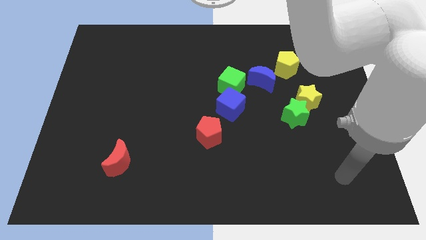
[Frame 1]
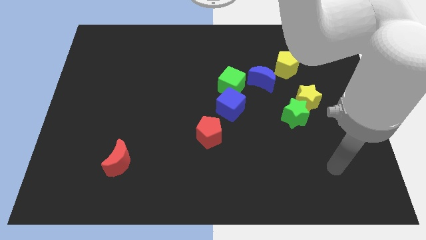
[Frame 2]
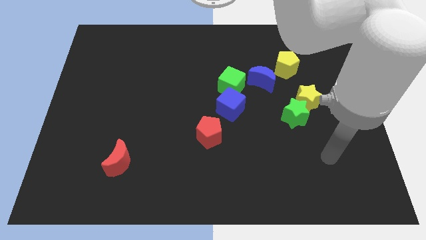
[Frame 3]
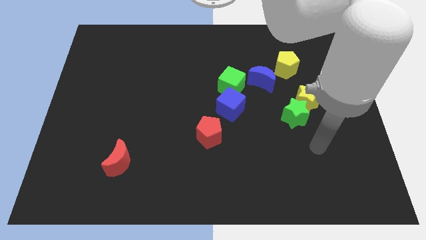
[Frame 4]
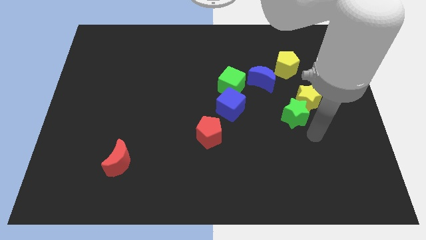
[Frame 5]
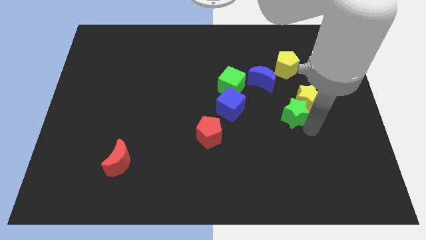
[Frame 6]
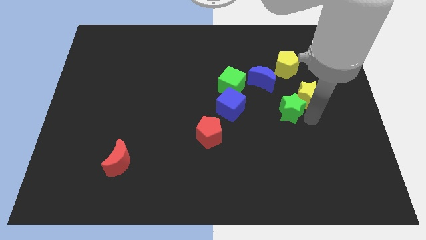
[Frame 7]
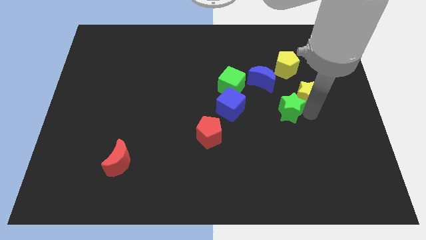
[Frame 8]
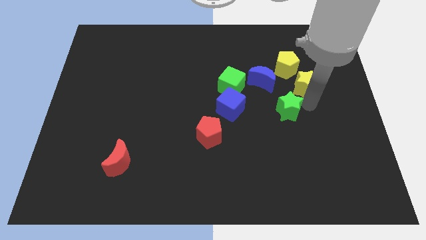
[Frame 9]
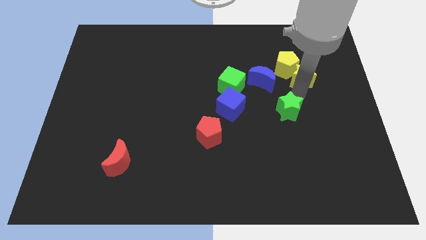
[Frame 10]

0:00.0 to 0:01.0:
pull the green star apart from the yellow star

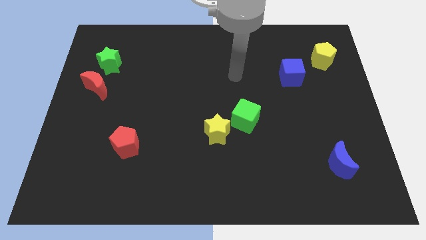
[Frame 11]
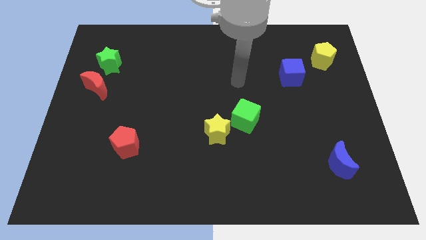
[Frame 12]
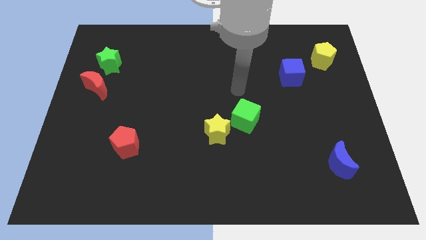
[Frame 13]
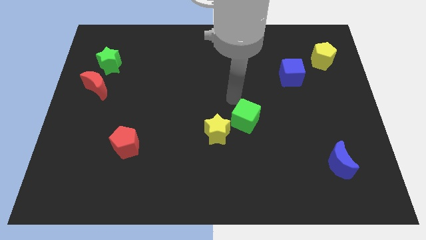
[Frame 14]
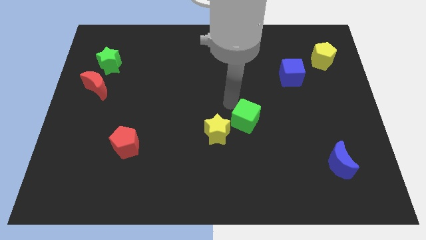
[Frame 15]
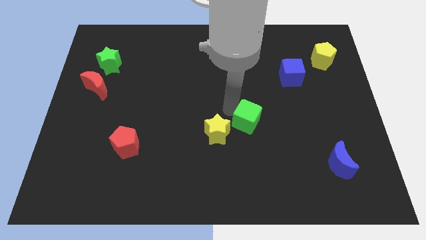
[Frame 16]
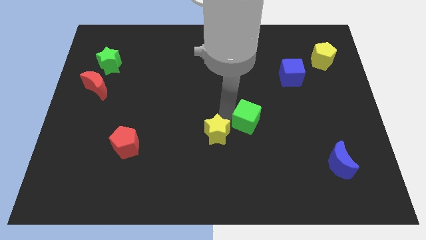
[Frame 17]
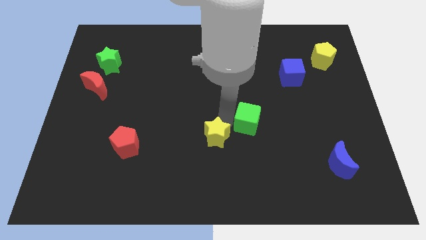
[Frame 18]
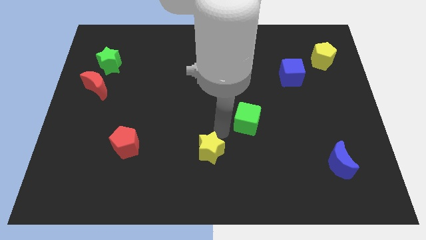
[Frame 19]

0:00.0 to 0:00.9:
separate the green cube from the yellow star

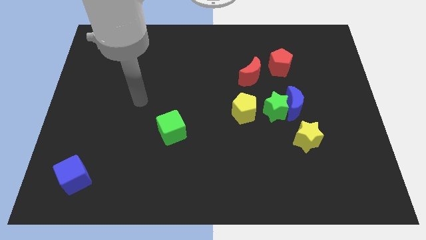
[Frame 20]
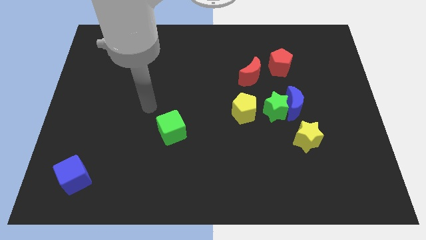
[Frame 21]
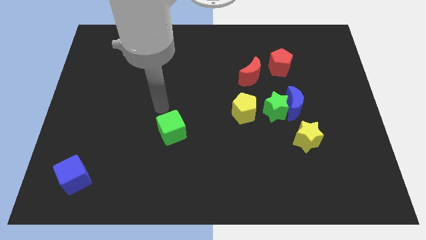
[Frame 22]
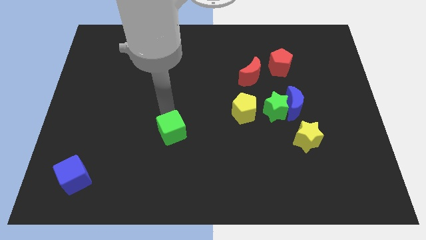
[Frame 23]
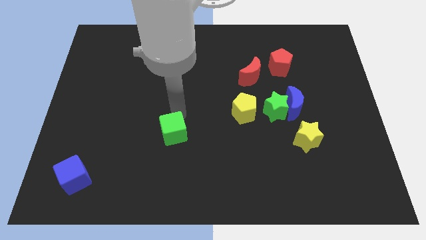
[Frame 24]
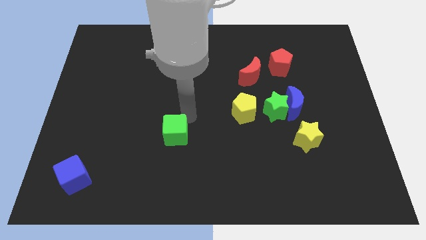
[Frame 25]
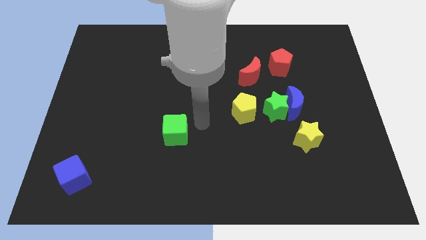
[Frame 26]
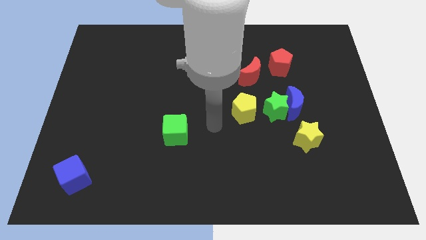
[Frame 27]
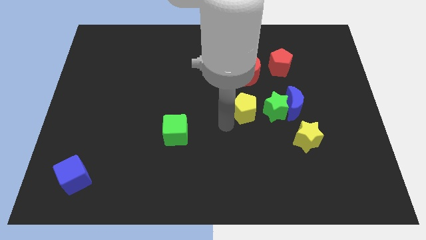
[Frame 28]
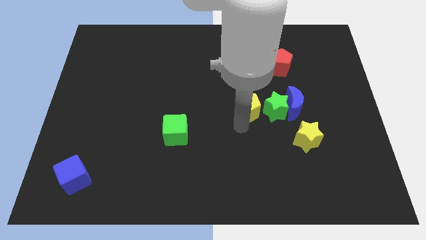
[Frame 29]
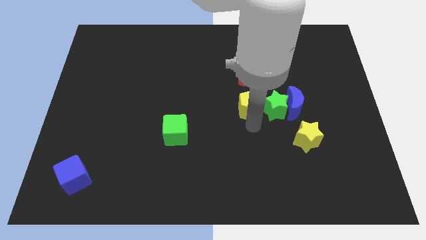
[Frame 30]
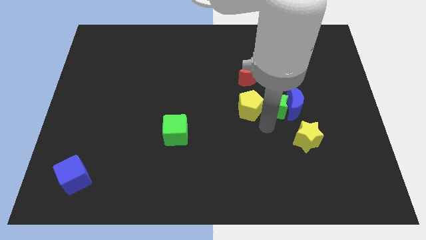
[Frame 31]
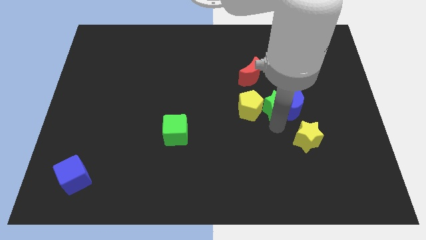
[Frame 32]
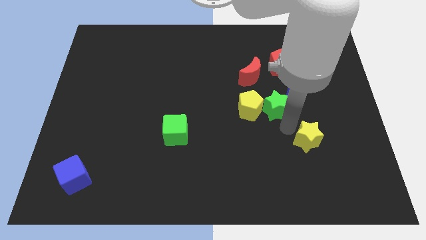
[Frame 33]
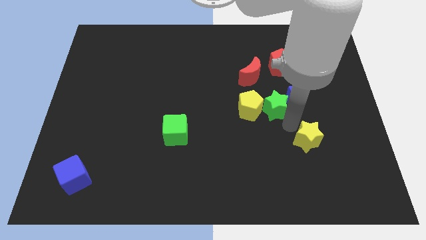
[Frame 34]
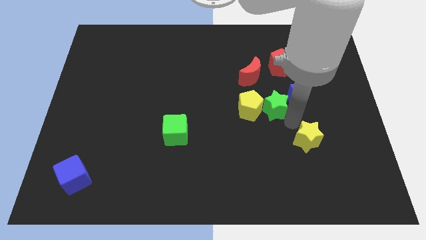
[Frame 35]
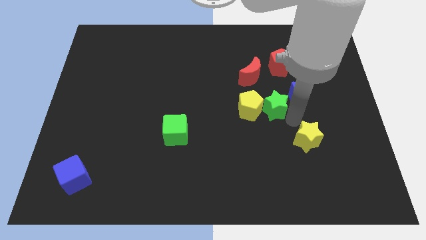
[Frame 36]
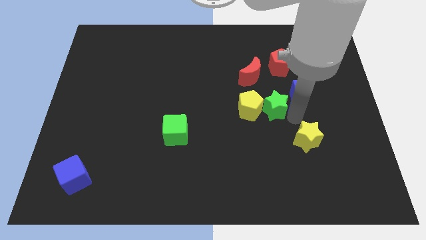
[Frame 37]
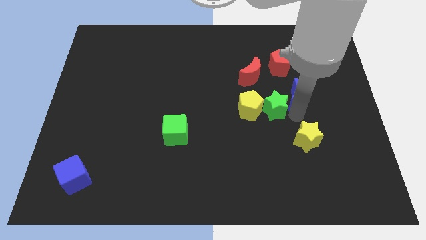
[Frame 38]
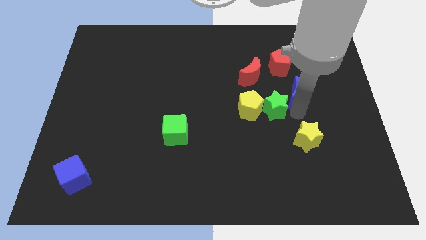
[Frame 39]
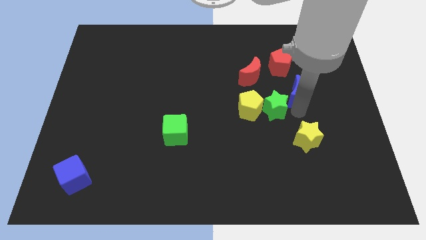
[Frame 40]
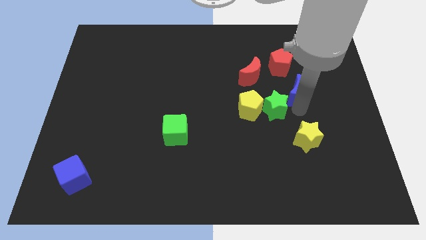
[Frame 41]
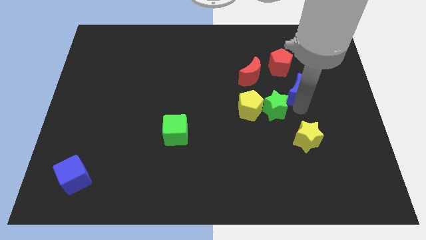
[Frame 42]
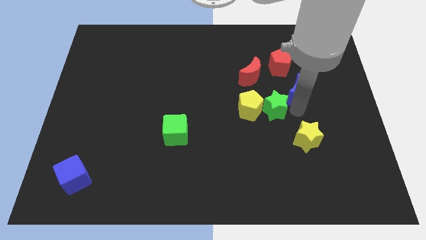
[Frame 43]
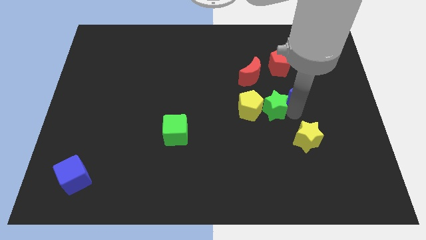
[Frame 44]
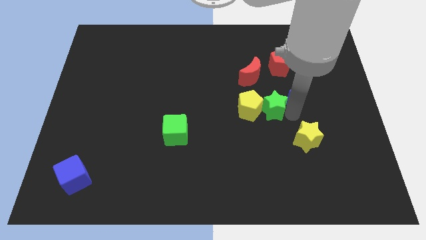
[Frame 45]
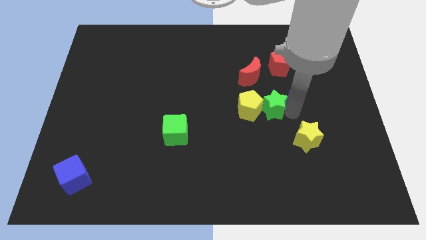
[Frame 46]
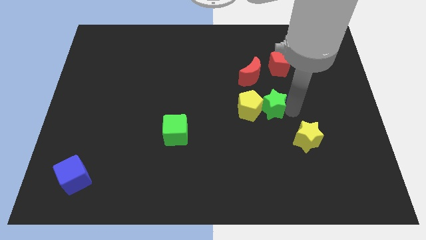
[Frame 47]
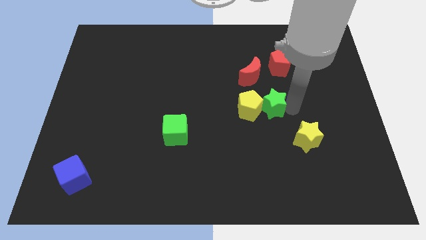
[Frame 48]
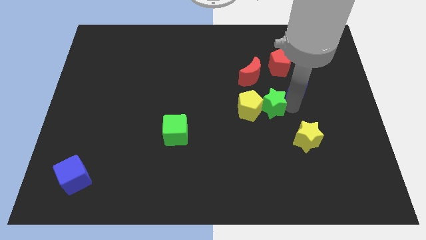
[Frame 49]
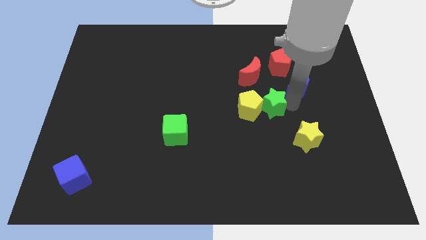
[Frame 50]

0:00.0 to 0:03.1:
move the blue moon away from the green star and yellow star

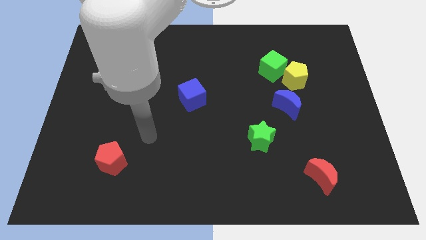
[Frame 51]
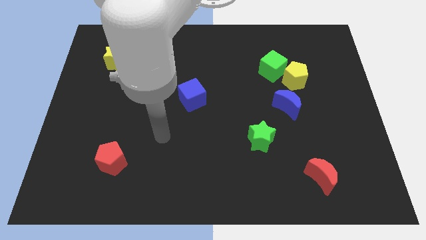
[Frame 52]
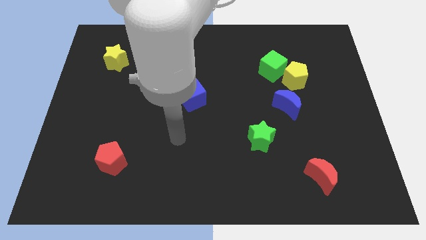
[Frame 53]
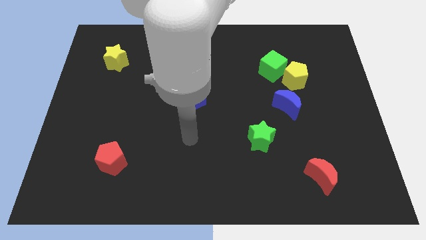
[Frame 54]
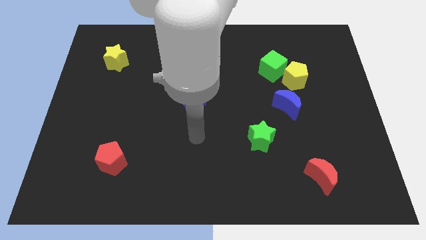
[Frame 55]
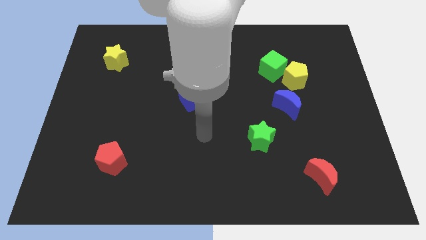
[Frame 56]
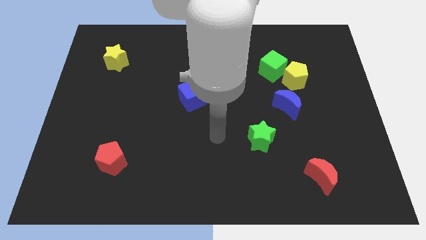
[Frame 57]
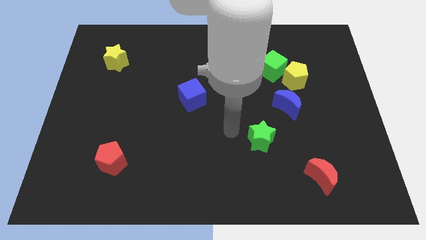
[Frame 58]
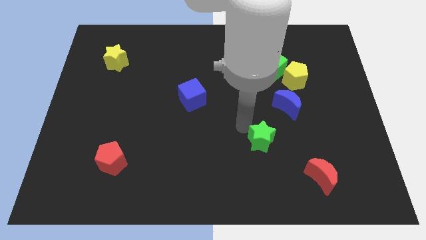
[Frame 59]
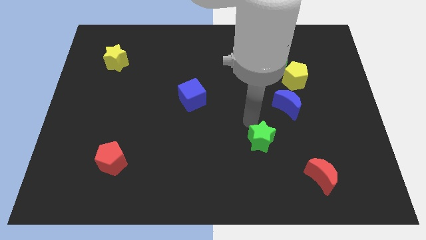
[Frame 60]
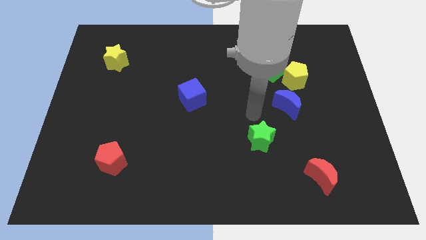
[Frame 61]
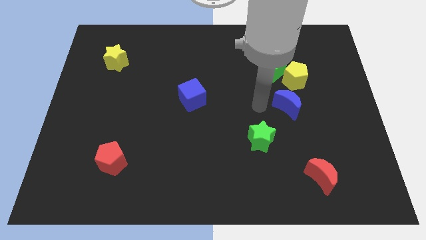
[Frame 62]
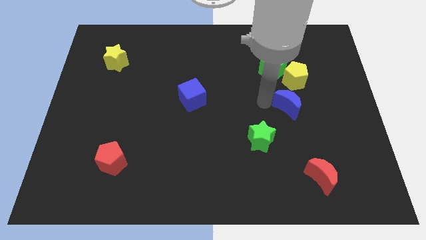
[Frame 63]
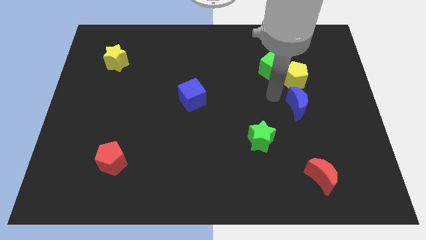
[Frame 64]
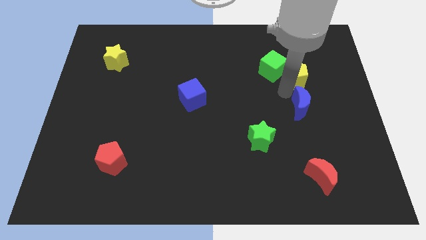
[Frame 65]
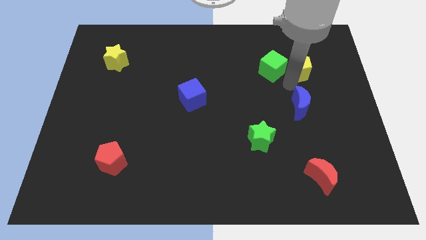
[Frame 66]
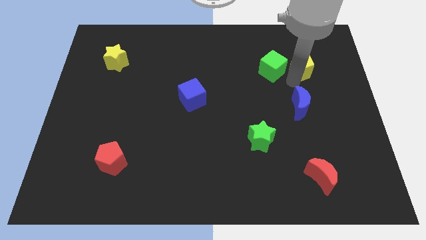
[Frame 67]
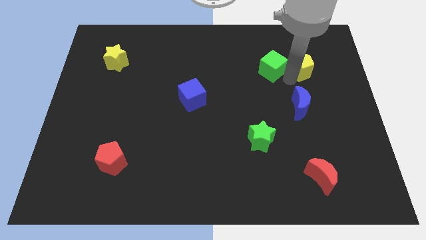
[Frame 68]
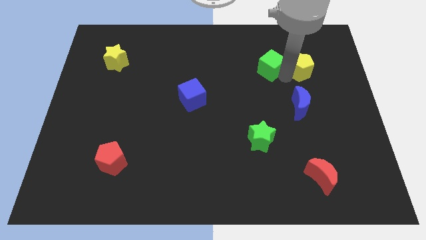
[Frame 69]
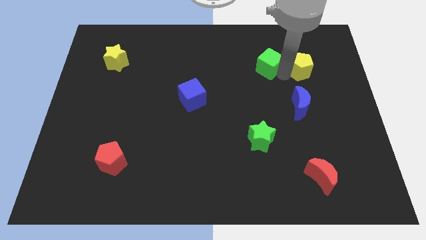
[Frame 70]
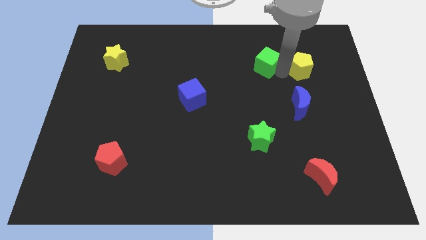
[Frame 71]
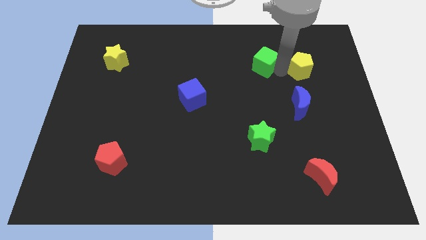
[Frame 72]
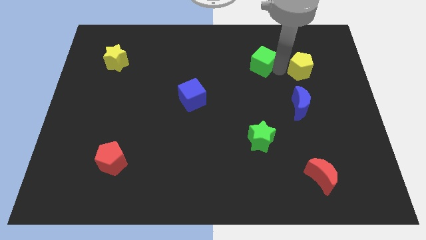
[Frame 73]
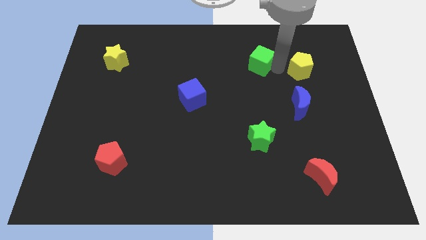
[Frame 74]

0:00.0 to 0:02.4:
pull the green cube apart from the yellow pentagon

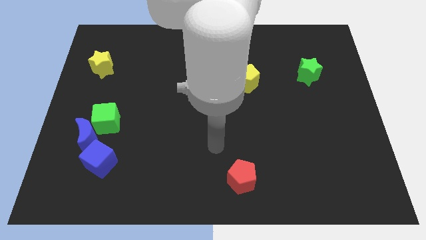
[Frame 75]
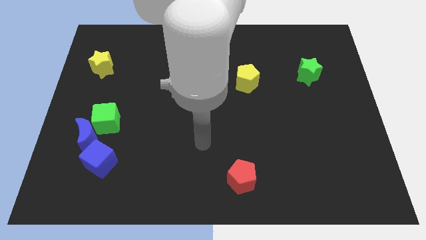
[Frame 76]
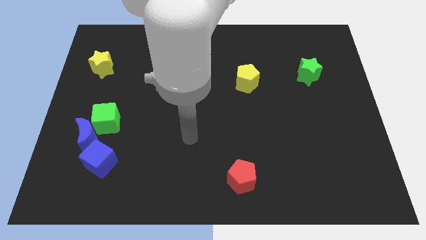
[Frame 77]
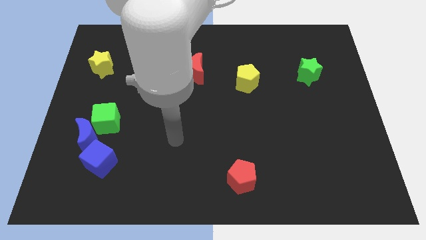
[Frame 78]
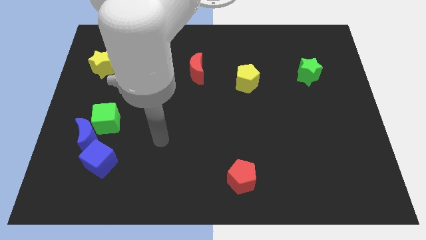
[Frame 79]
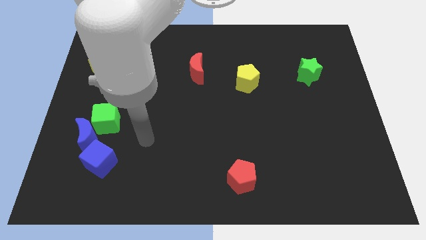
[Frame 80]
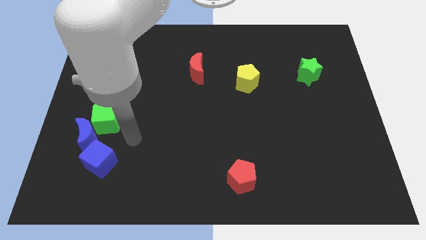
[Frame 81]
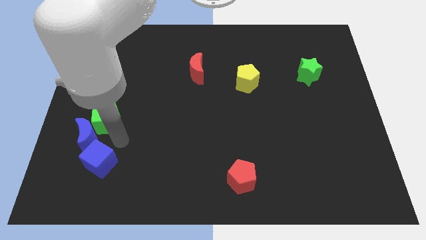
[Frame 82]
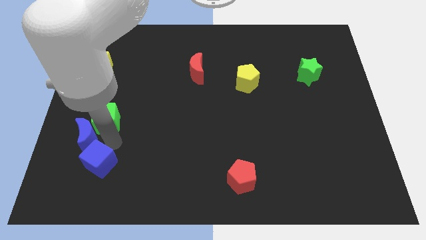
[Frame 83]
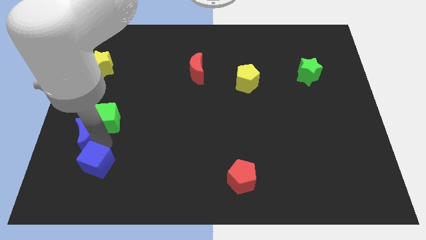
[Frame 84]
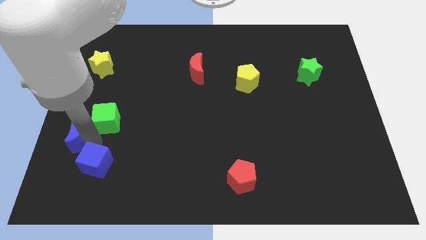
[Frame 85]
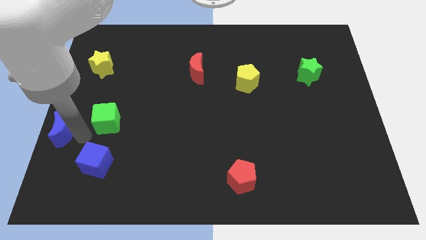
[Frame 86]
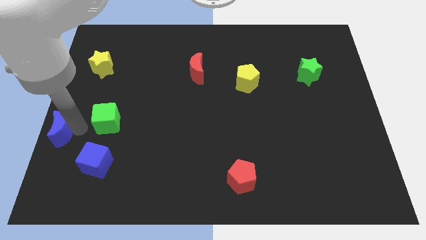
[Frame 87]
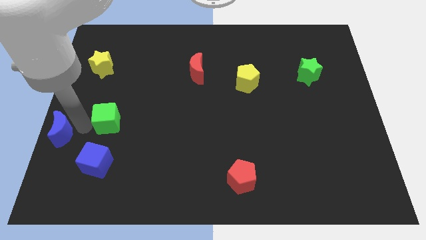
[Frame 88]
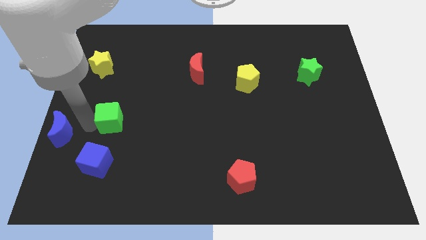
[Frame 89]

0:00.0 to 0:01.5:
move the green cube away from the blue moon

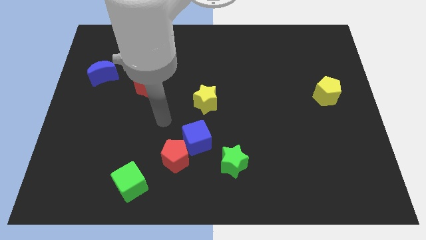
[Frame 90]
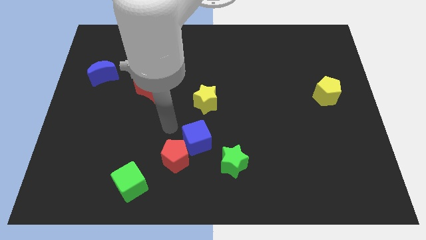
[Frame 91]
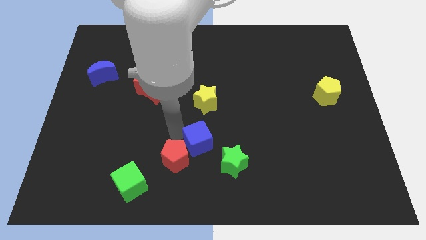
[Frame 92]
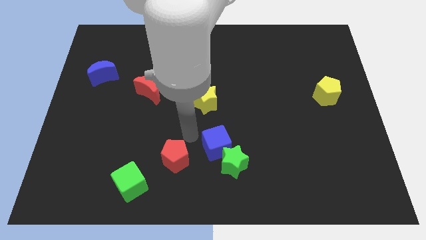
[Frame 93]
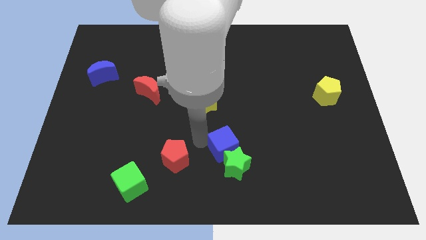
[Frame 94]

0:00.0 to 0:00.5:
move the red pentagon away from the blue cube
